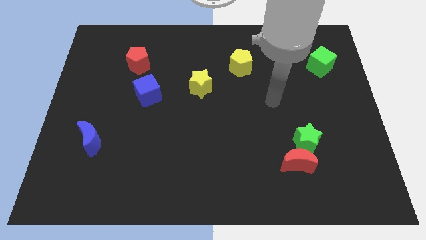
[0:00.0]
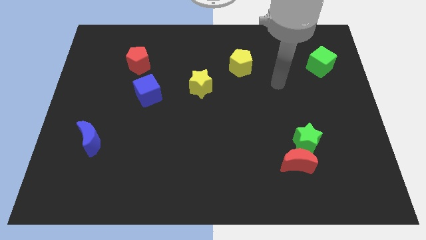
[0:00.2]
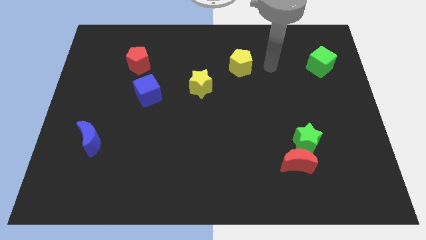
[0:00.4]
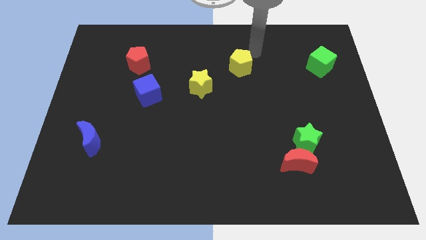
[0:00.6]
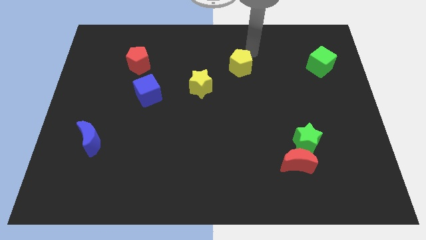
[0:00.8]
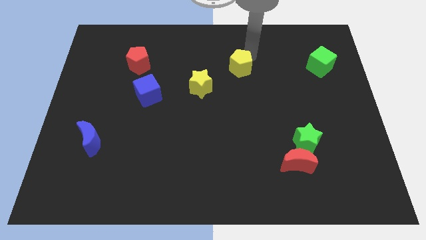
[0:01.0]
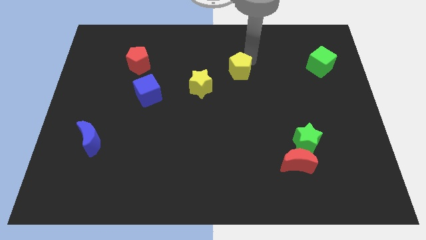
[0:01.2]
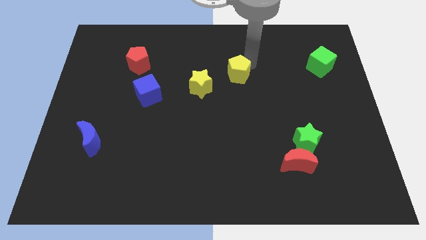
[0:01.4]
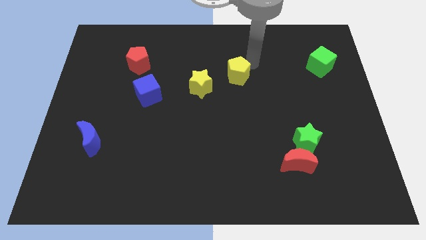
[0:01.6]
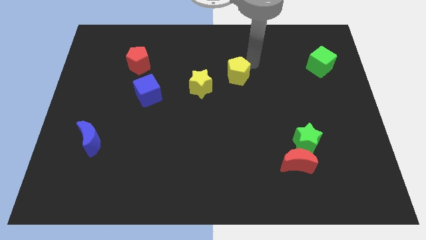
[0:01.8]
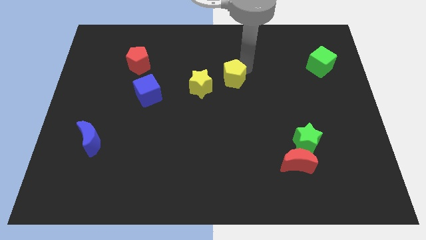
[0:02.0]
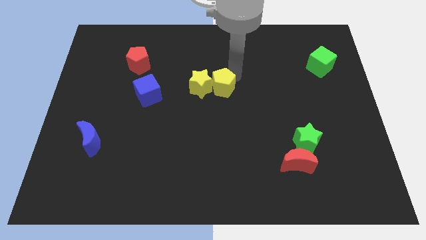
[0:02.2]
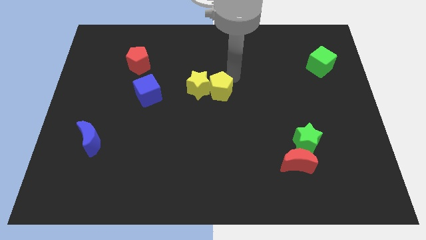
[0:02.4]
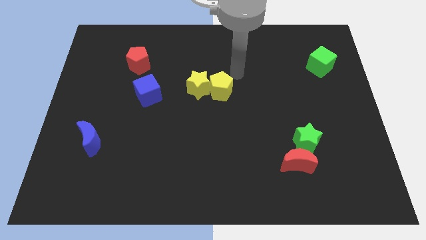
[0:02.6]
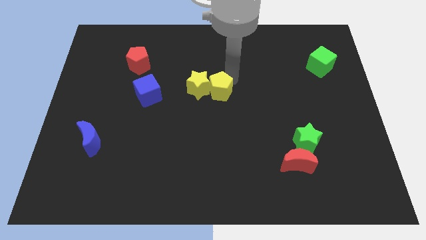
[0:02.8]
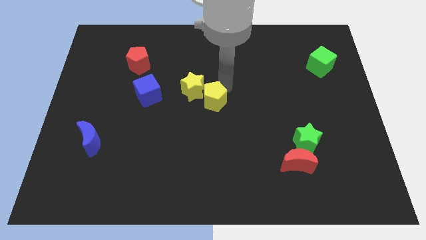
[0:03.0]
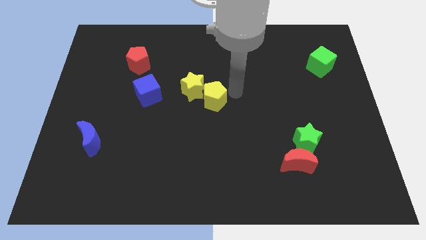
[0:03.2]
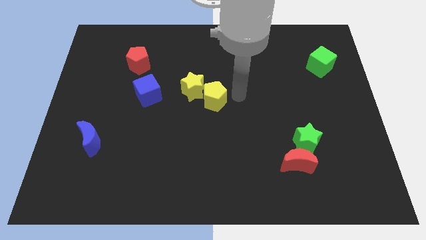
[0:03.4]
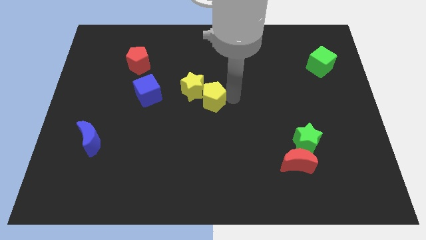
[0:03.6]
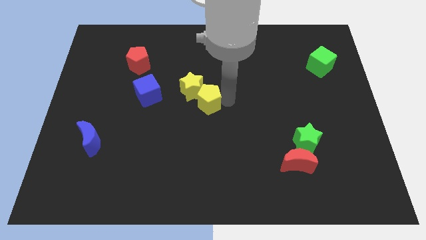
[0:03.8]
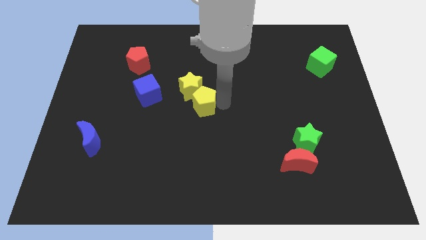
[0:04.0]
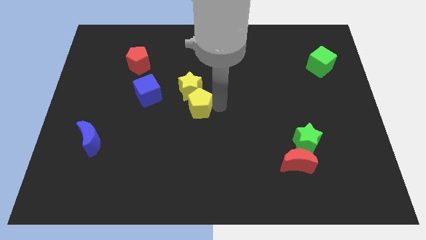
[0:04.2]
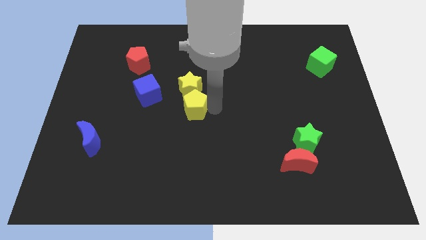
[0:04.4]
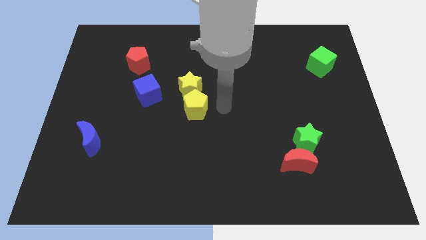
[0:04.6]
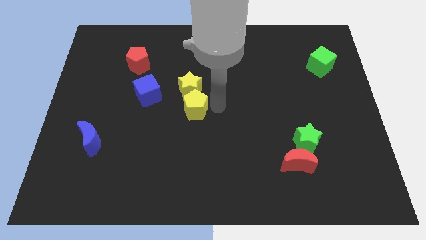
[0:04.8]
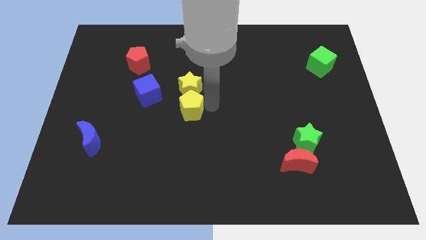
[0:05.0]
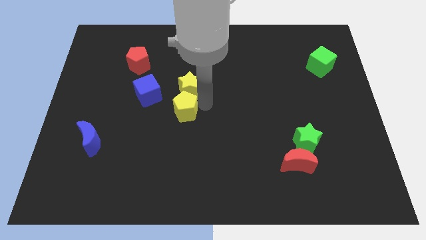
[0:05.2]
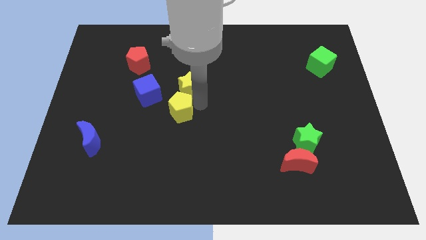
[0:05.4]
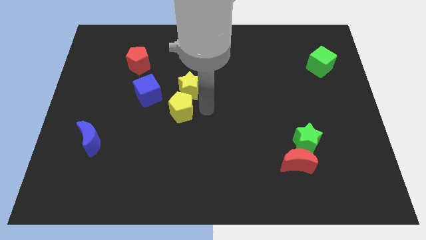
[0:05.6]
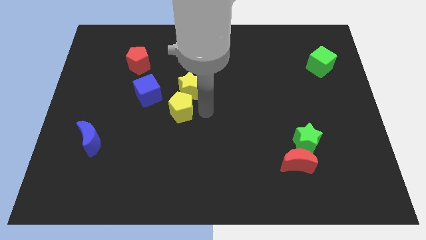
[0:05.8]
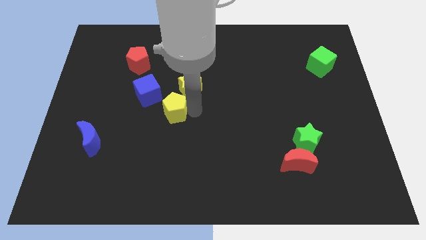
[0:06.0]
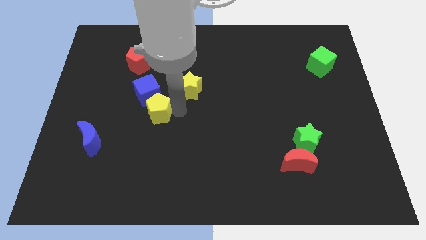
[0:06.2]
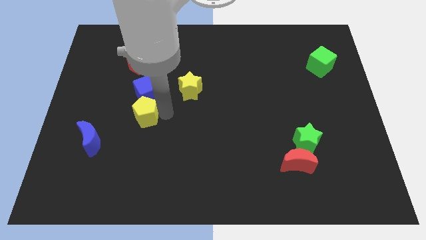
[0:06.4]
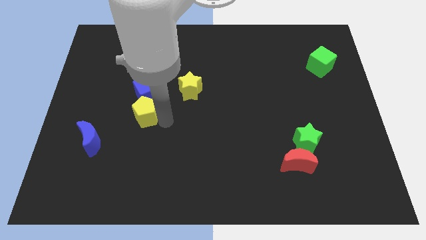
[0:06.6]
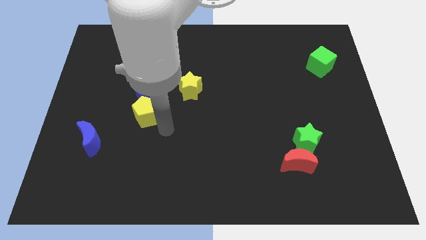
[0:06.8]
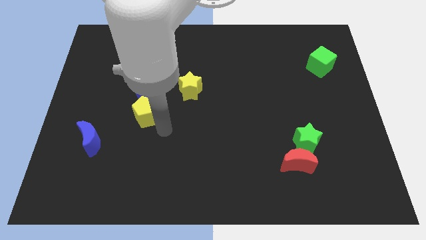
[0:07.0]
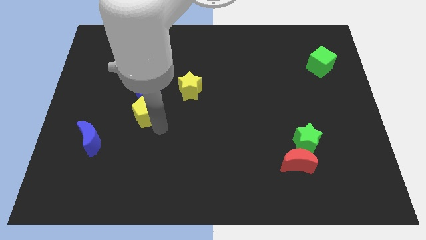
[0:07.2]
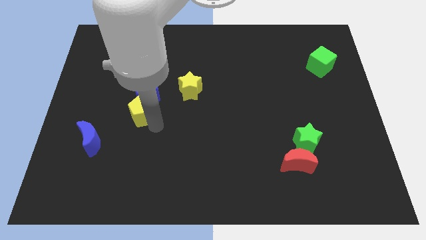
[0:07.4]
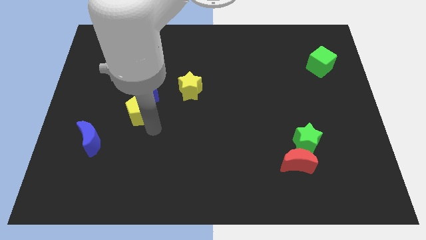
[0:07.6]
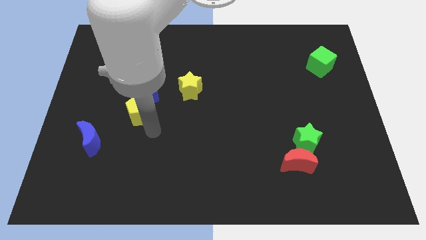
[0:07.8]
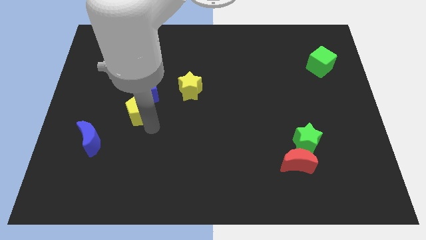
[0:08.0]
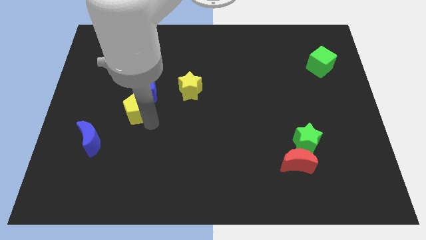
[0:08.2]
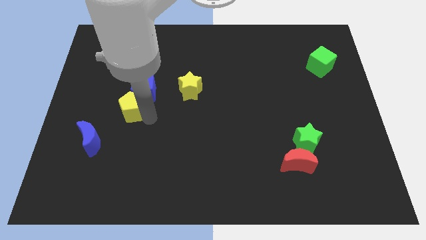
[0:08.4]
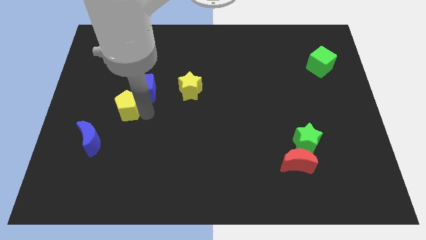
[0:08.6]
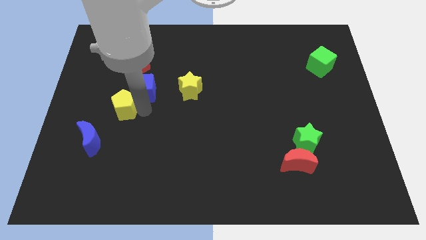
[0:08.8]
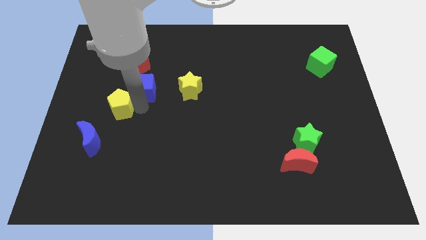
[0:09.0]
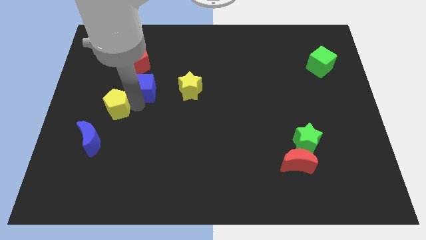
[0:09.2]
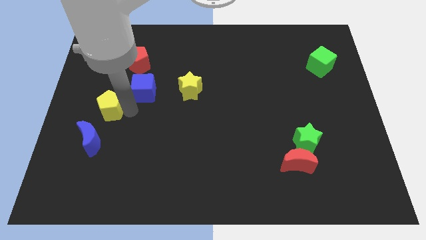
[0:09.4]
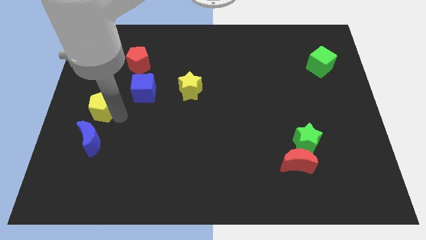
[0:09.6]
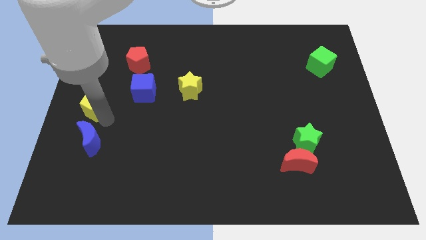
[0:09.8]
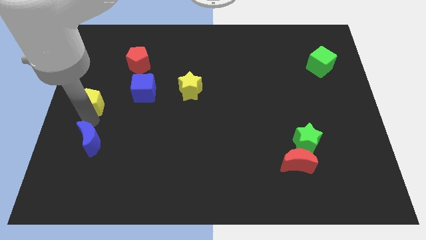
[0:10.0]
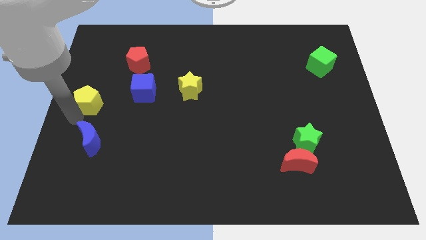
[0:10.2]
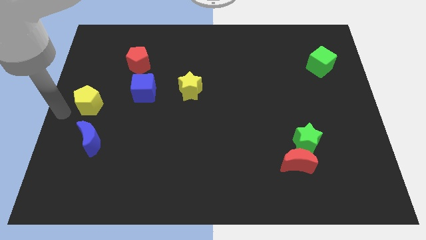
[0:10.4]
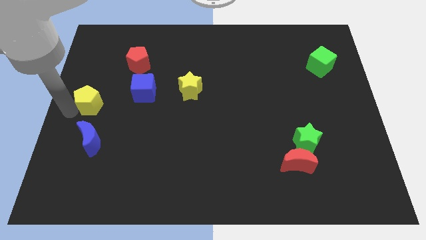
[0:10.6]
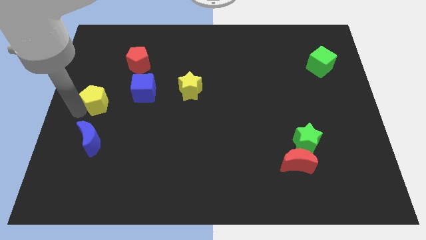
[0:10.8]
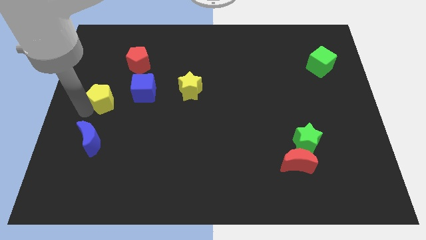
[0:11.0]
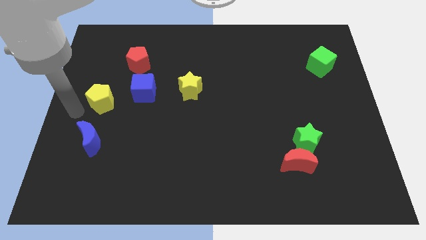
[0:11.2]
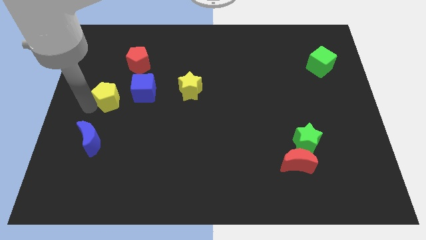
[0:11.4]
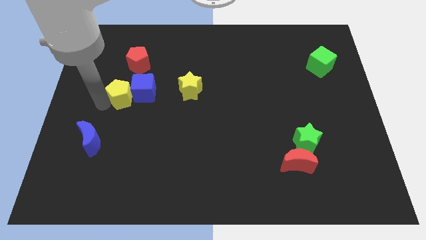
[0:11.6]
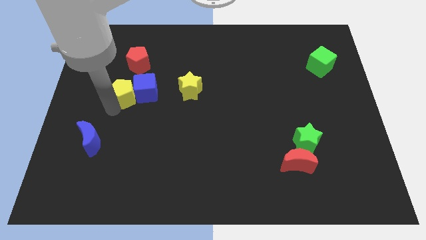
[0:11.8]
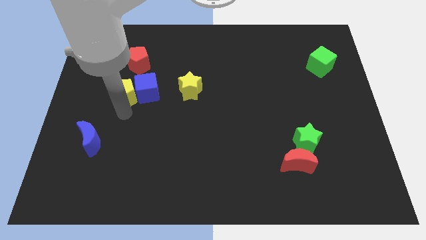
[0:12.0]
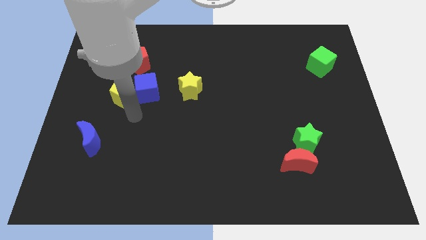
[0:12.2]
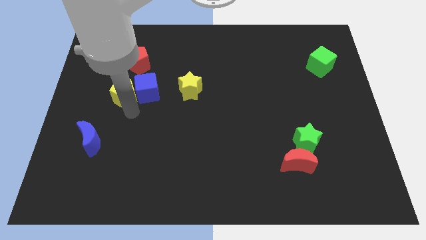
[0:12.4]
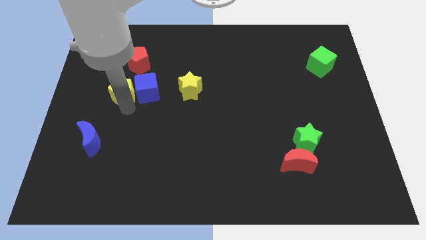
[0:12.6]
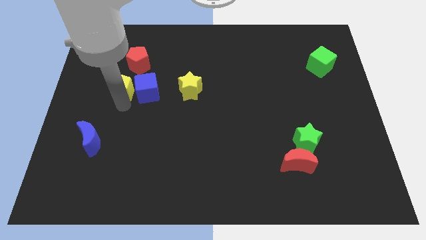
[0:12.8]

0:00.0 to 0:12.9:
move the yellow pentagon diagonally down and to the left of the red pentagon

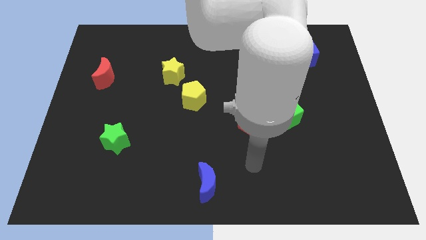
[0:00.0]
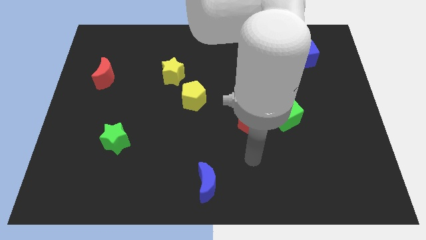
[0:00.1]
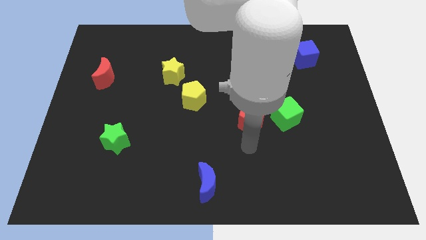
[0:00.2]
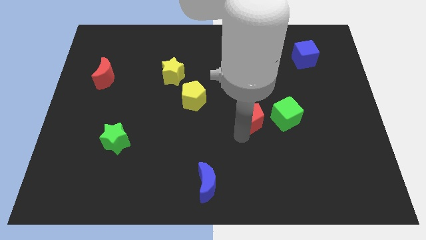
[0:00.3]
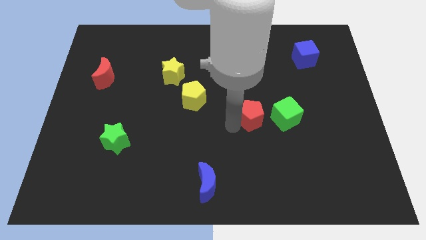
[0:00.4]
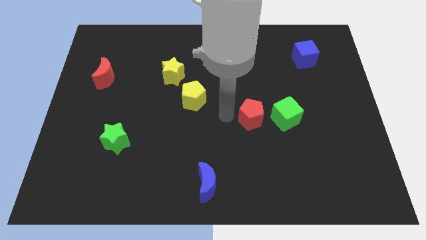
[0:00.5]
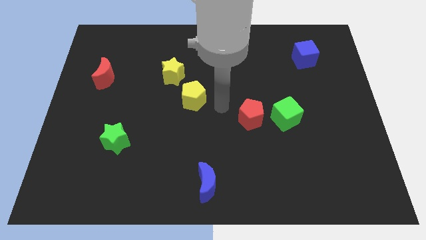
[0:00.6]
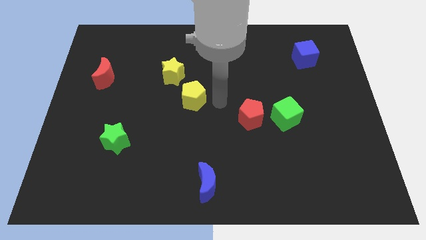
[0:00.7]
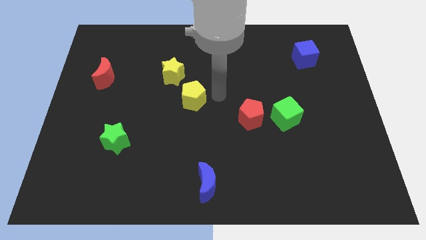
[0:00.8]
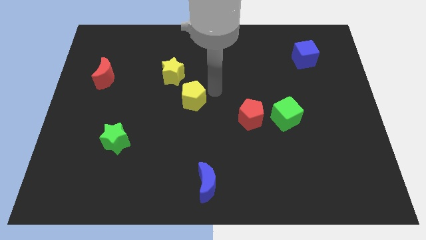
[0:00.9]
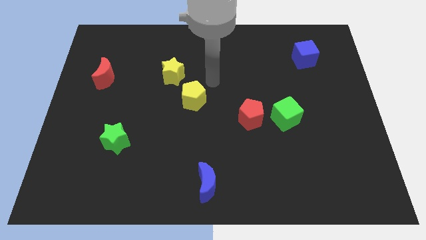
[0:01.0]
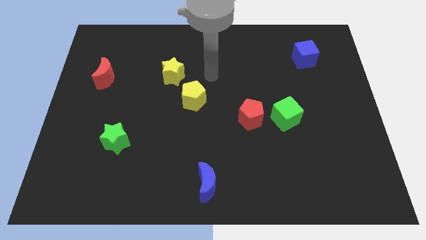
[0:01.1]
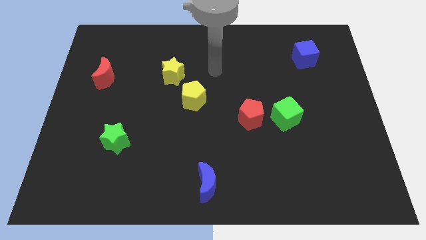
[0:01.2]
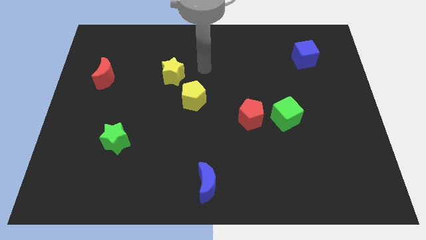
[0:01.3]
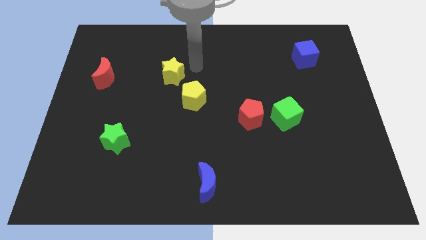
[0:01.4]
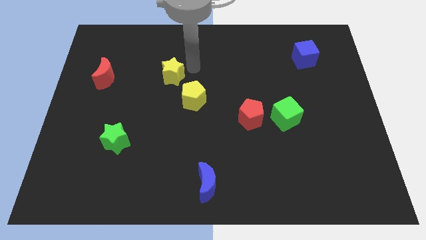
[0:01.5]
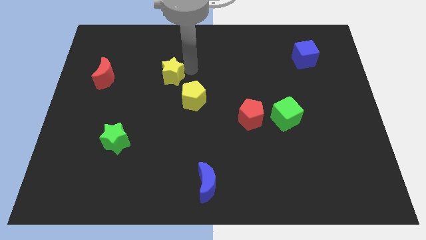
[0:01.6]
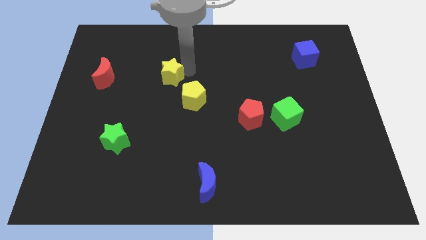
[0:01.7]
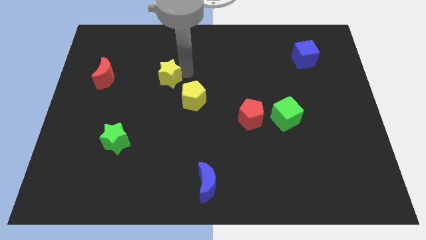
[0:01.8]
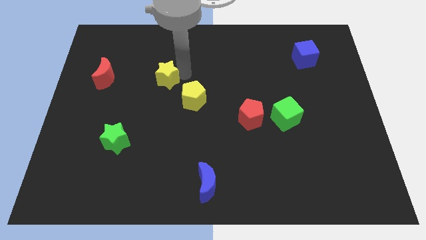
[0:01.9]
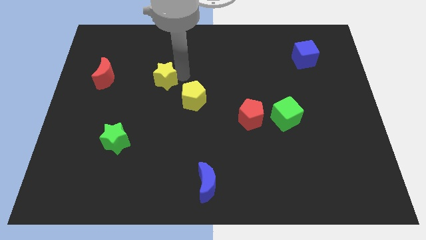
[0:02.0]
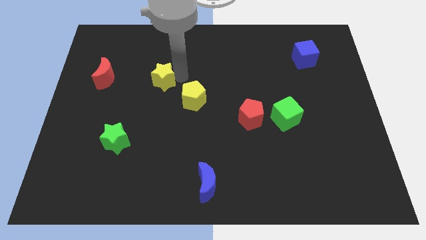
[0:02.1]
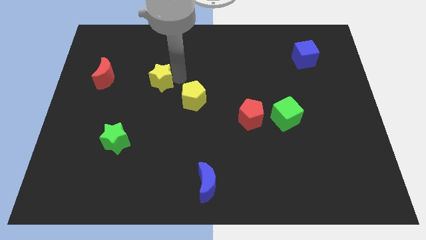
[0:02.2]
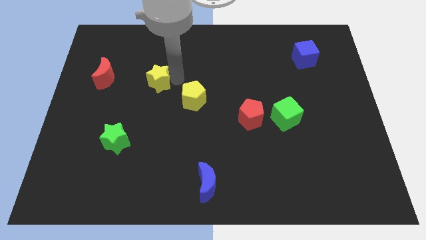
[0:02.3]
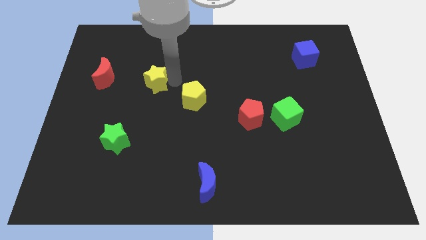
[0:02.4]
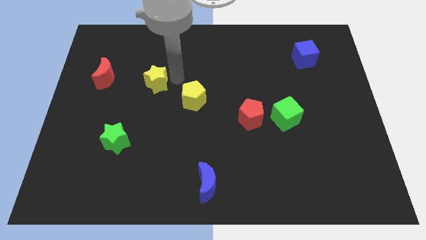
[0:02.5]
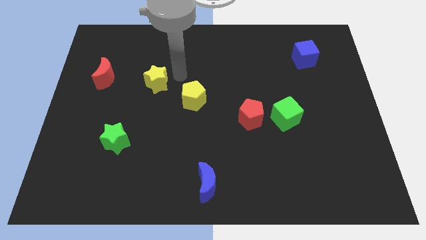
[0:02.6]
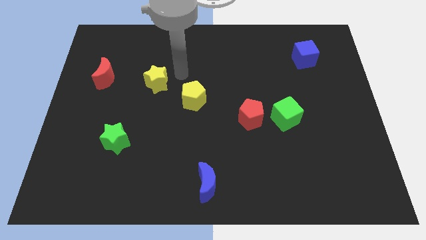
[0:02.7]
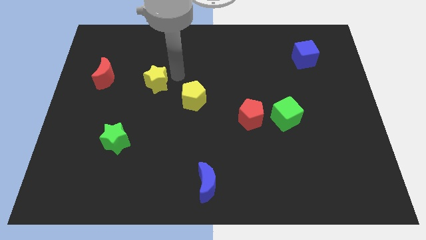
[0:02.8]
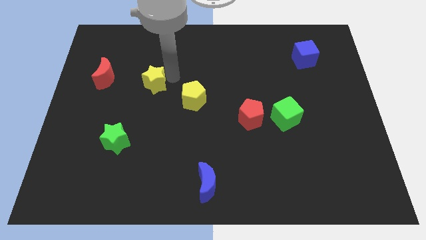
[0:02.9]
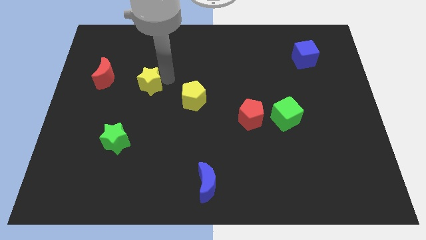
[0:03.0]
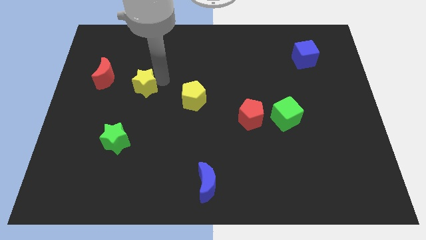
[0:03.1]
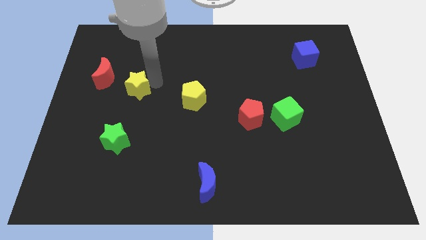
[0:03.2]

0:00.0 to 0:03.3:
slide the yellow star to the bottom right of the red moon
